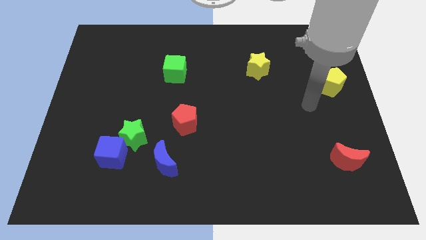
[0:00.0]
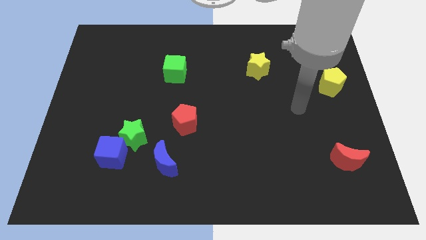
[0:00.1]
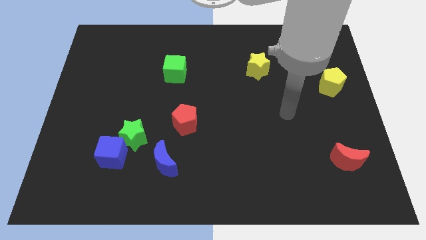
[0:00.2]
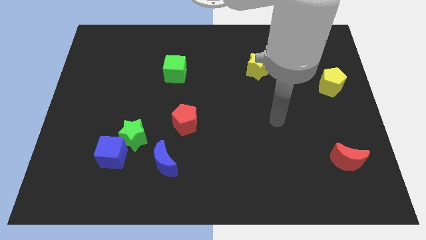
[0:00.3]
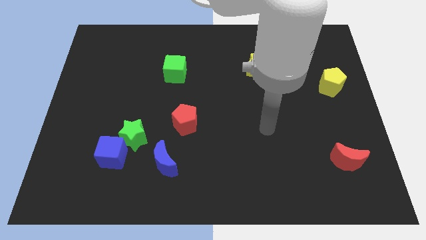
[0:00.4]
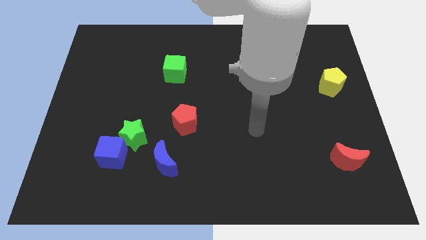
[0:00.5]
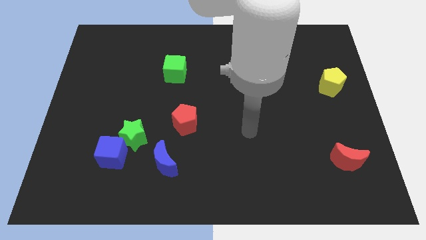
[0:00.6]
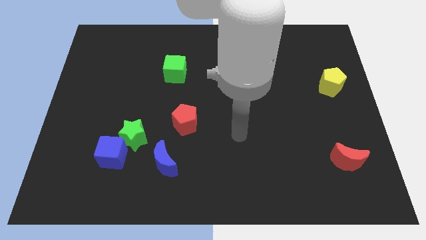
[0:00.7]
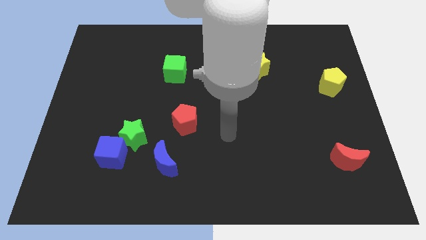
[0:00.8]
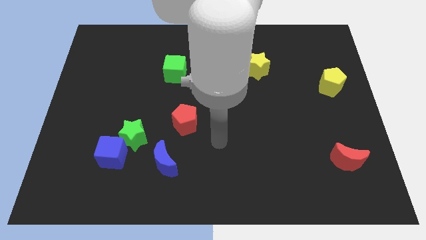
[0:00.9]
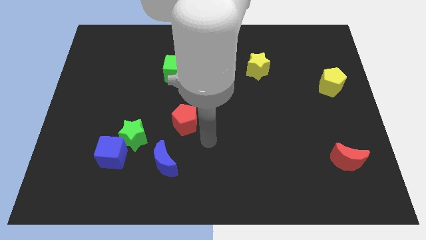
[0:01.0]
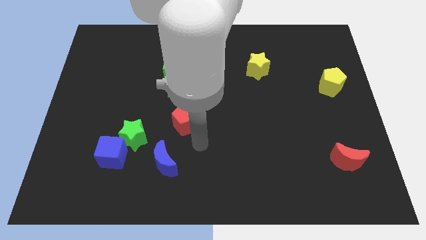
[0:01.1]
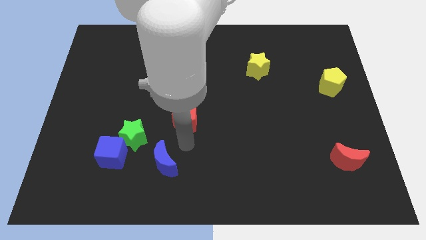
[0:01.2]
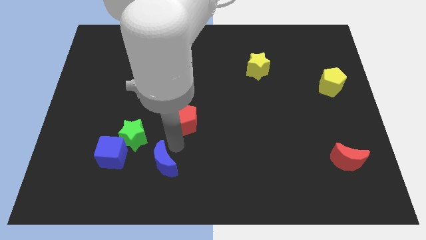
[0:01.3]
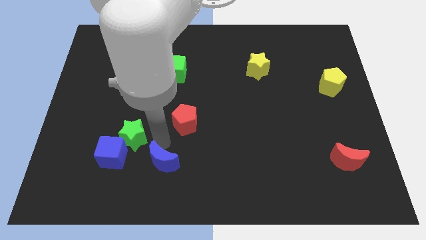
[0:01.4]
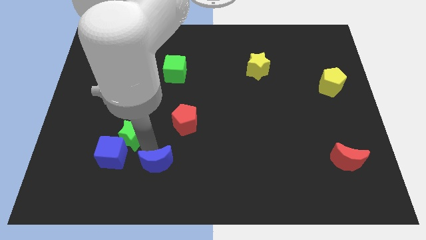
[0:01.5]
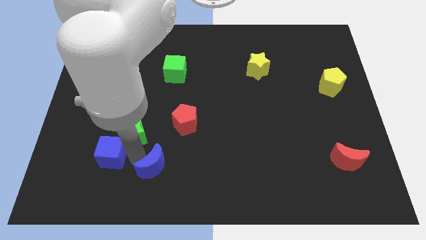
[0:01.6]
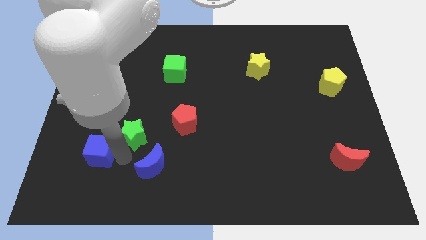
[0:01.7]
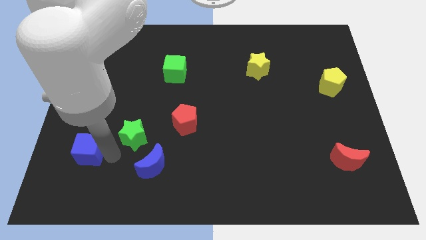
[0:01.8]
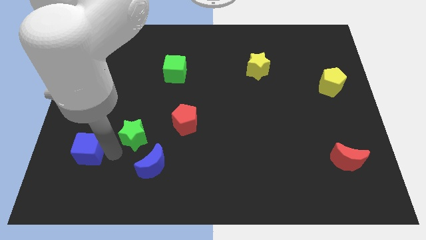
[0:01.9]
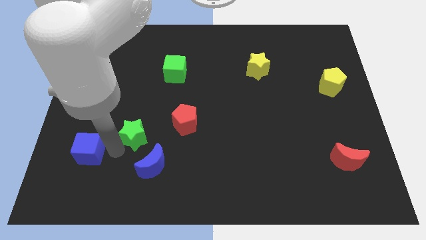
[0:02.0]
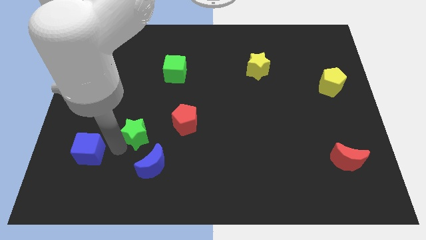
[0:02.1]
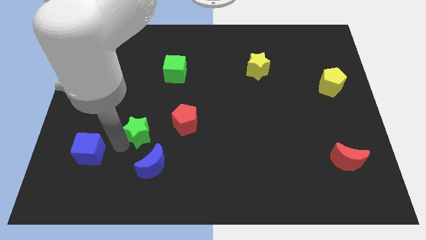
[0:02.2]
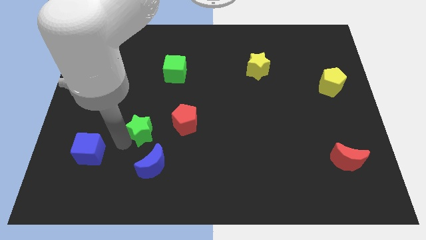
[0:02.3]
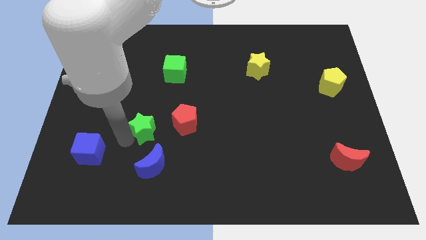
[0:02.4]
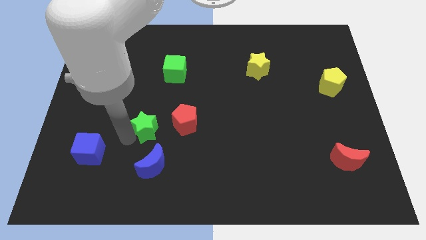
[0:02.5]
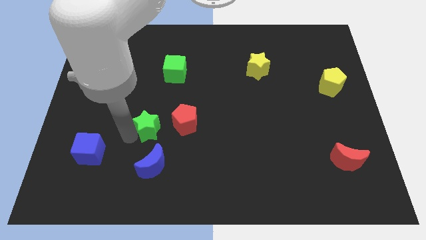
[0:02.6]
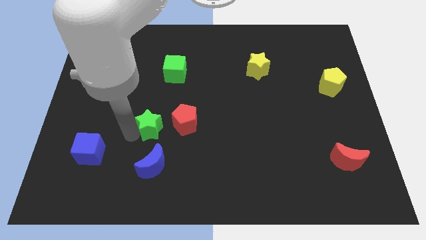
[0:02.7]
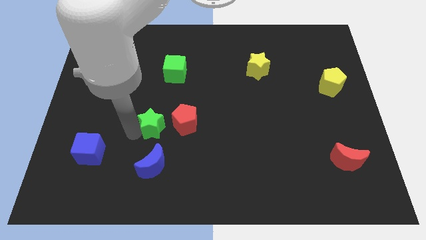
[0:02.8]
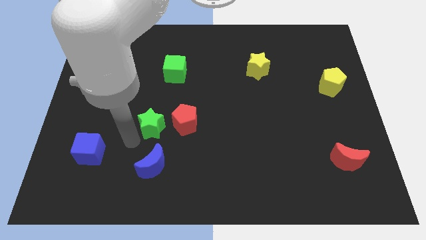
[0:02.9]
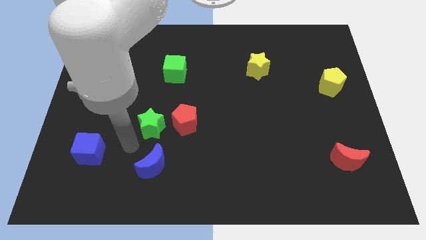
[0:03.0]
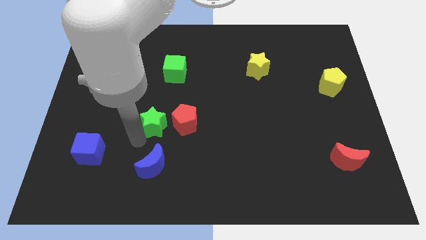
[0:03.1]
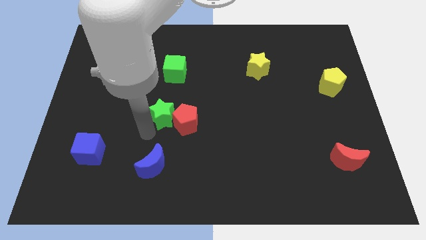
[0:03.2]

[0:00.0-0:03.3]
slightly move the green star up and then right

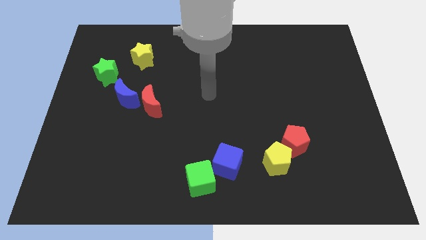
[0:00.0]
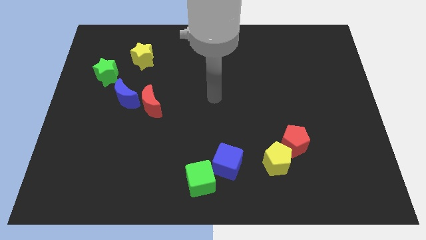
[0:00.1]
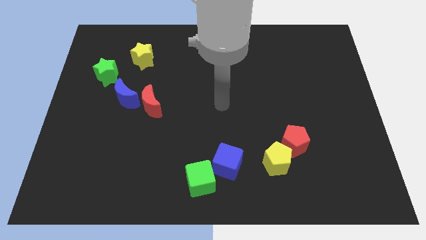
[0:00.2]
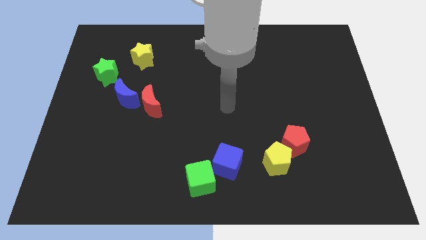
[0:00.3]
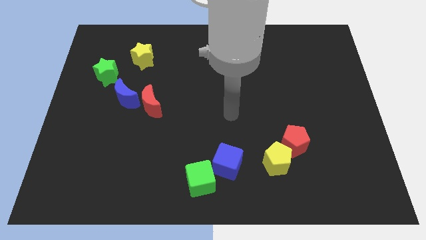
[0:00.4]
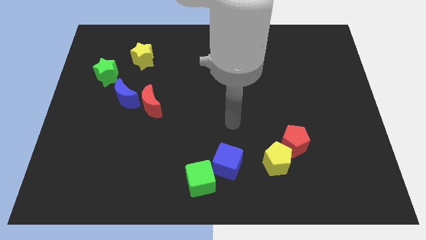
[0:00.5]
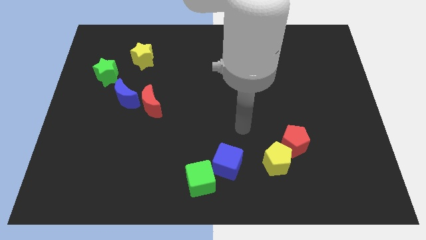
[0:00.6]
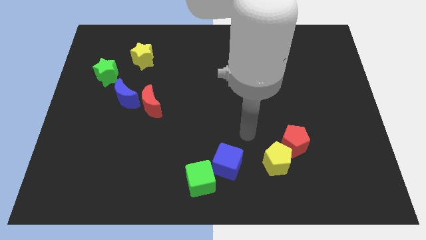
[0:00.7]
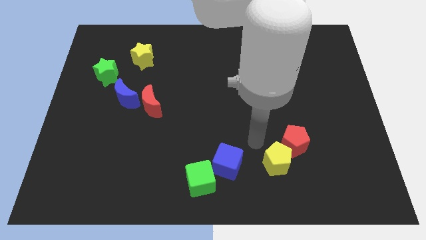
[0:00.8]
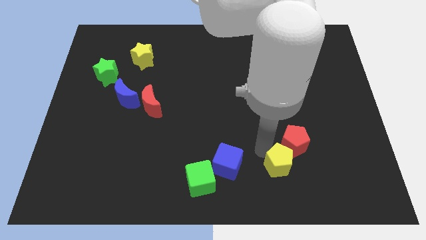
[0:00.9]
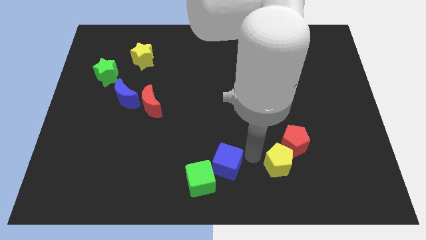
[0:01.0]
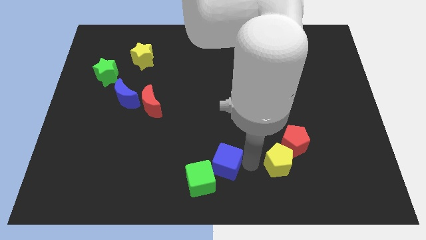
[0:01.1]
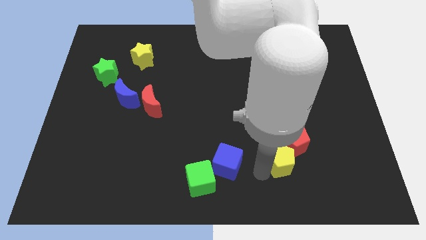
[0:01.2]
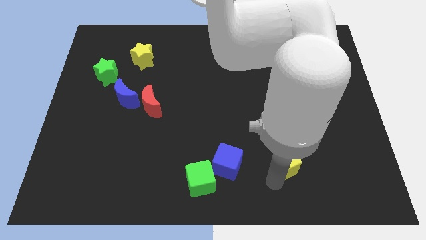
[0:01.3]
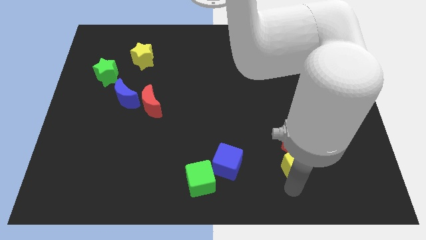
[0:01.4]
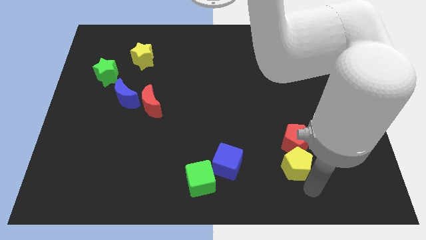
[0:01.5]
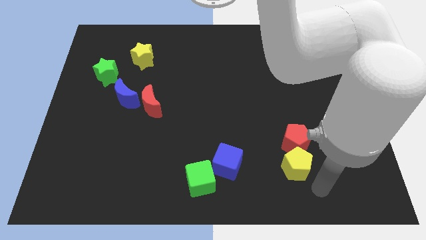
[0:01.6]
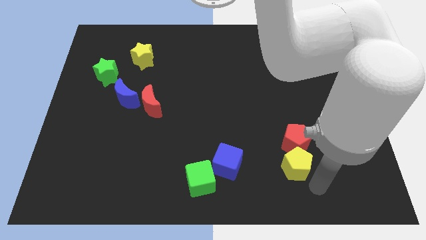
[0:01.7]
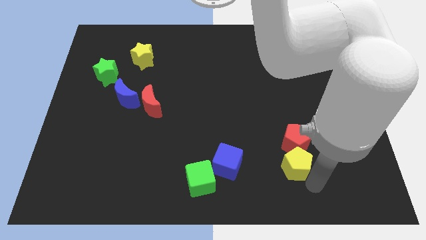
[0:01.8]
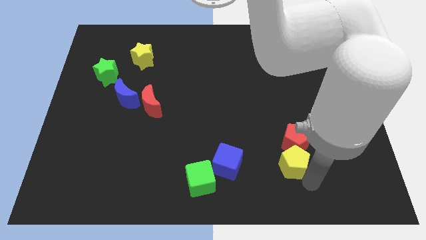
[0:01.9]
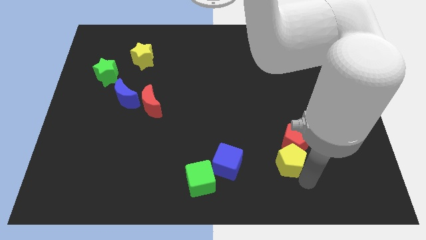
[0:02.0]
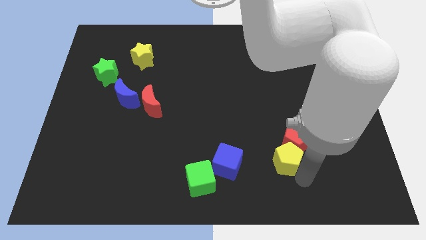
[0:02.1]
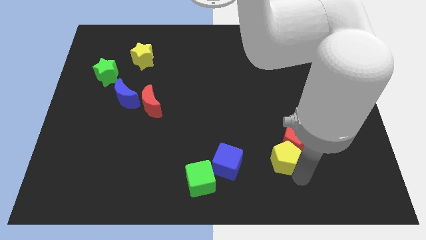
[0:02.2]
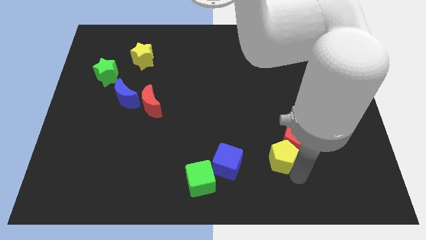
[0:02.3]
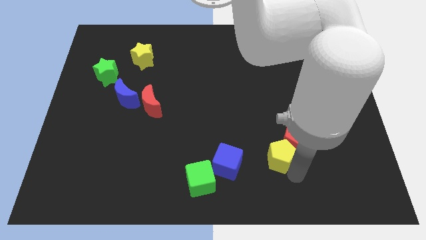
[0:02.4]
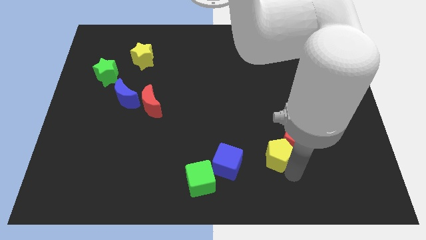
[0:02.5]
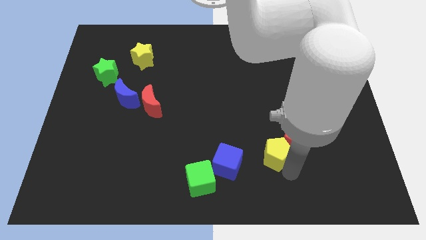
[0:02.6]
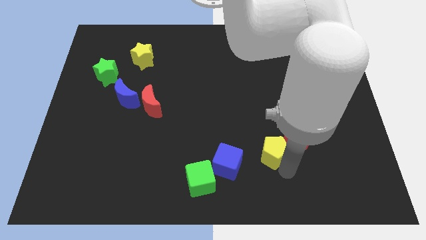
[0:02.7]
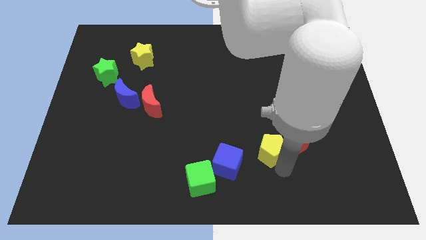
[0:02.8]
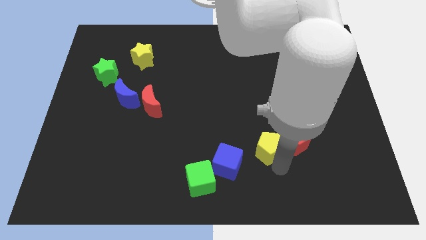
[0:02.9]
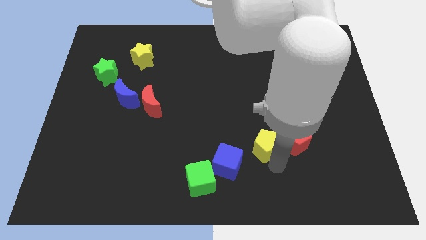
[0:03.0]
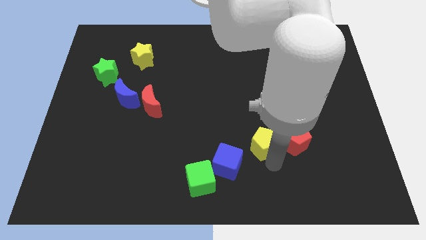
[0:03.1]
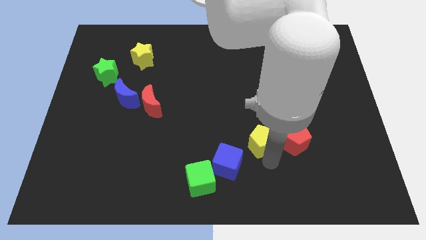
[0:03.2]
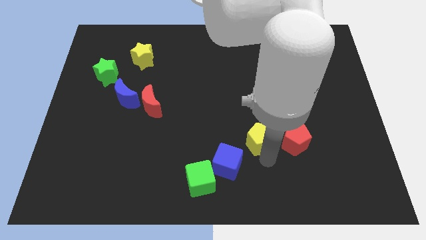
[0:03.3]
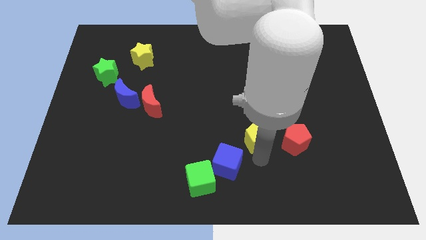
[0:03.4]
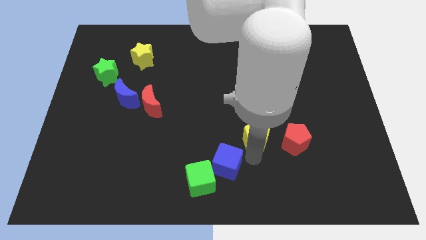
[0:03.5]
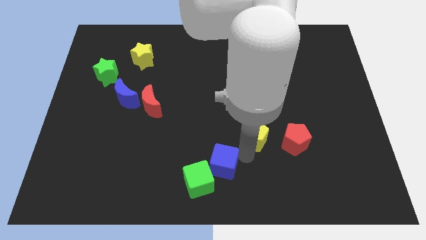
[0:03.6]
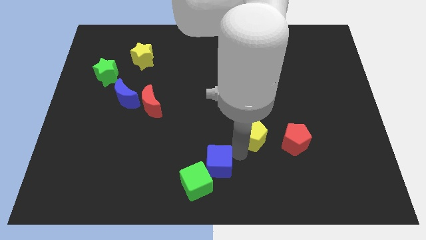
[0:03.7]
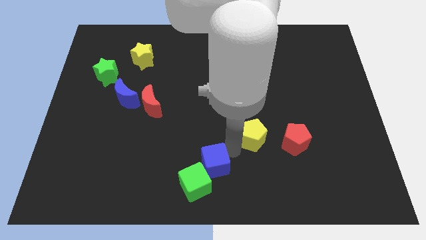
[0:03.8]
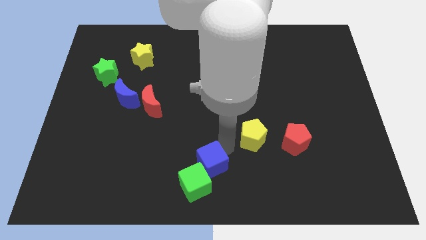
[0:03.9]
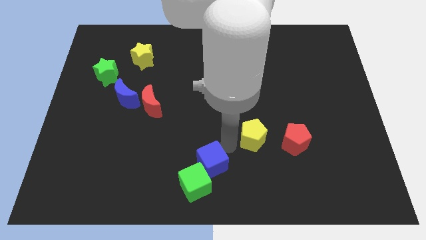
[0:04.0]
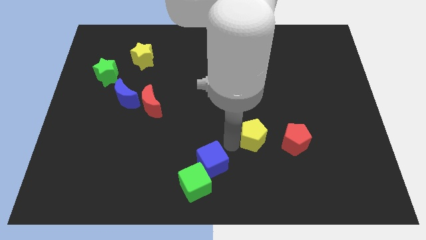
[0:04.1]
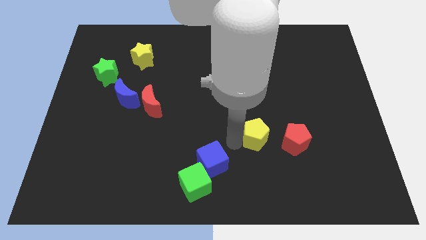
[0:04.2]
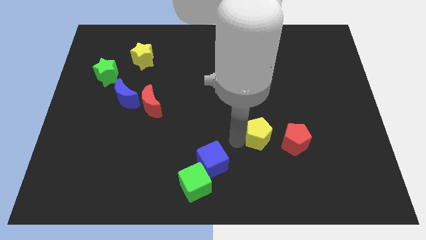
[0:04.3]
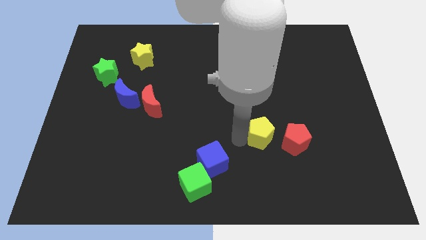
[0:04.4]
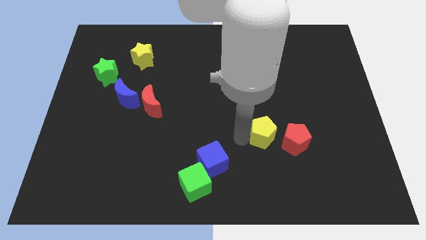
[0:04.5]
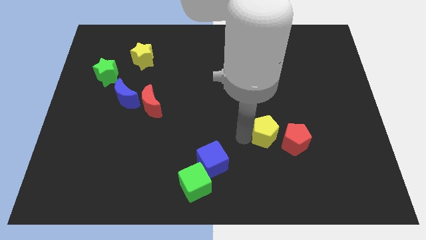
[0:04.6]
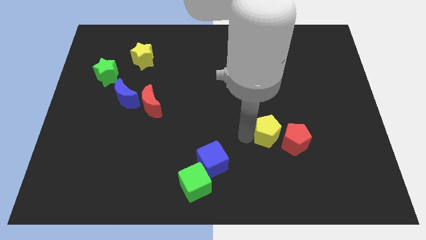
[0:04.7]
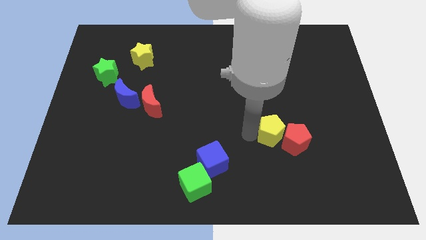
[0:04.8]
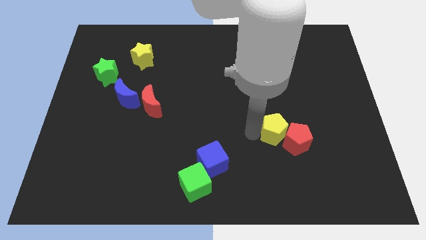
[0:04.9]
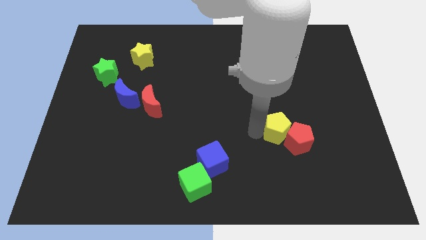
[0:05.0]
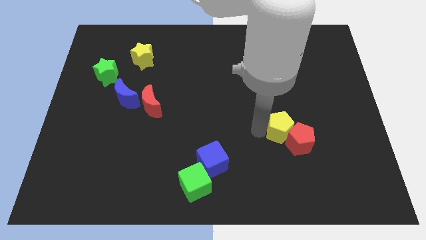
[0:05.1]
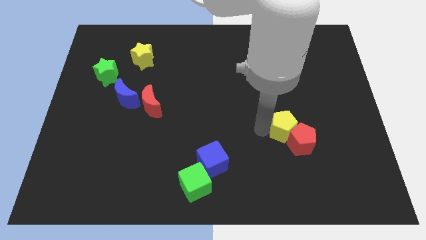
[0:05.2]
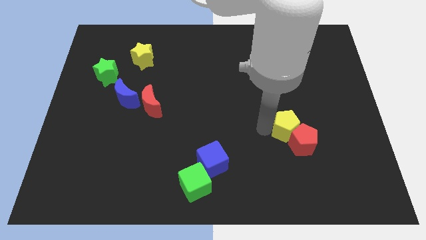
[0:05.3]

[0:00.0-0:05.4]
push the yellow pentagon slightly diagonally upwards and right
